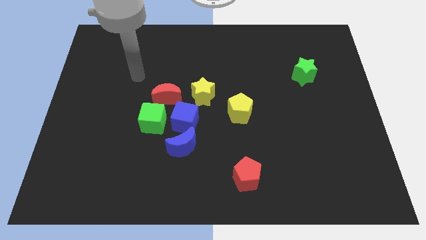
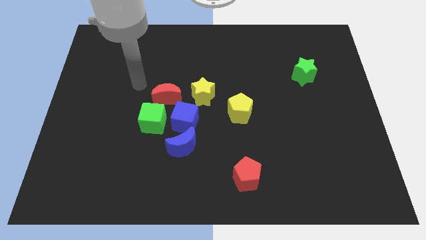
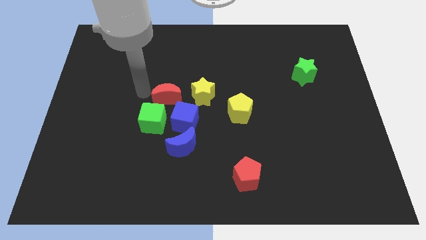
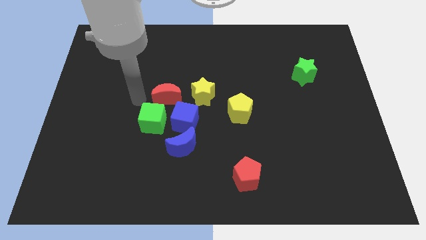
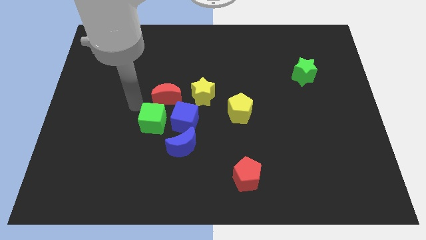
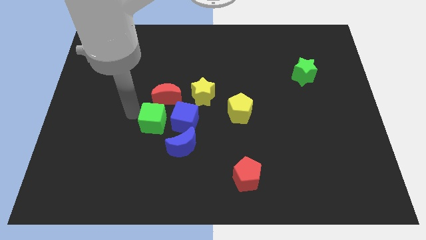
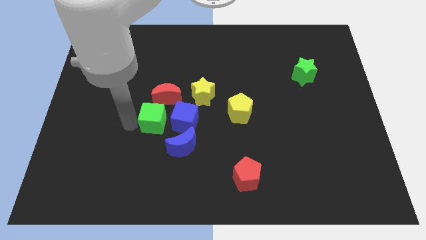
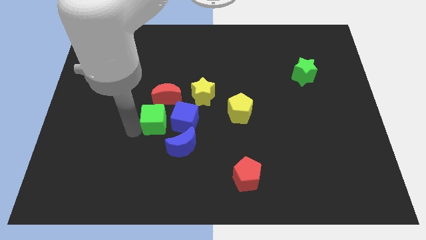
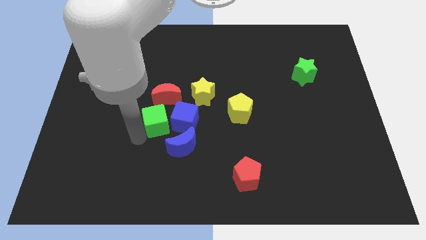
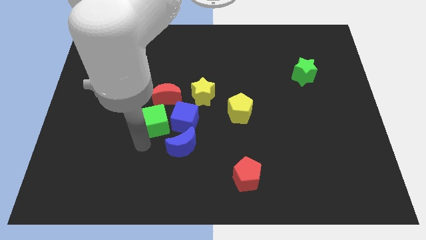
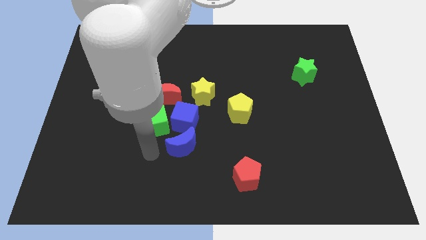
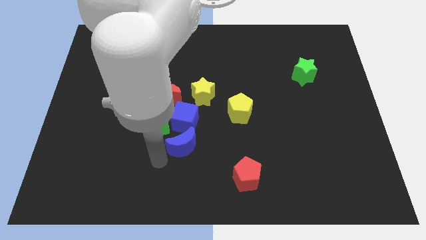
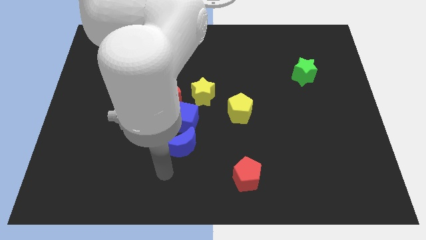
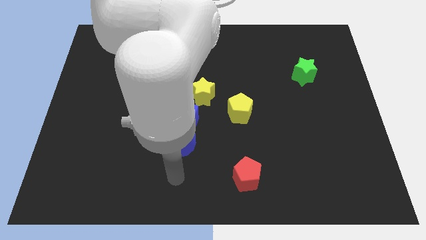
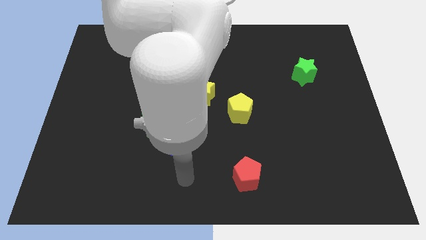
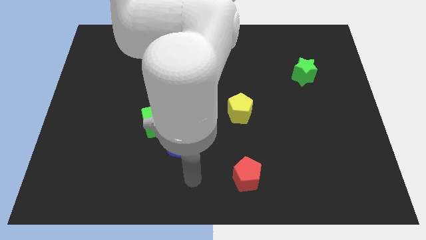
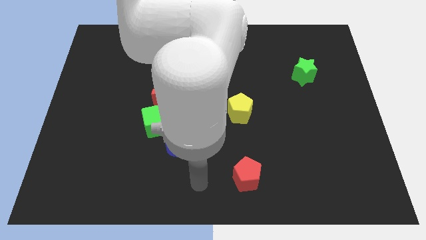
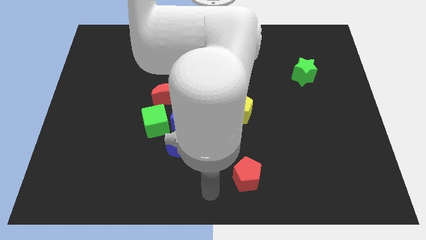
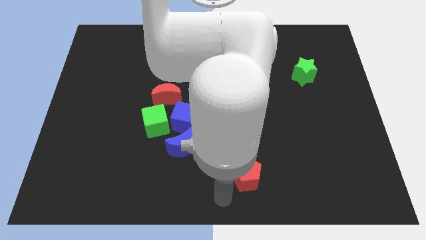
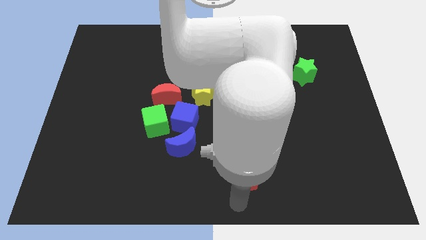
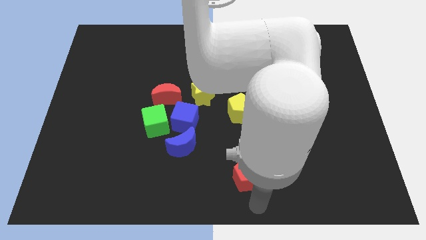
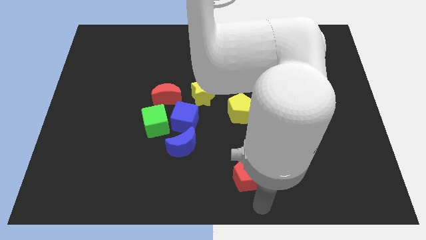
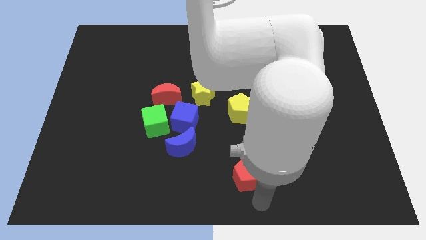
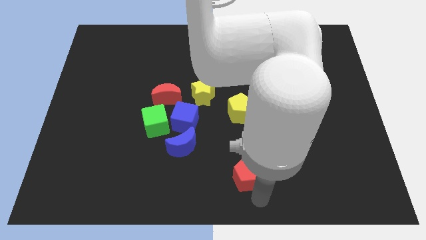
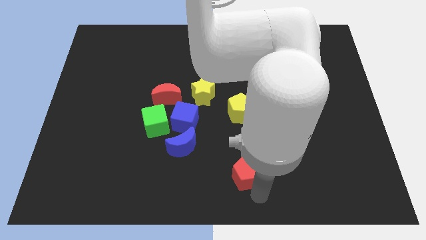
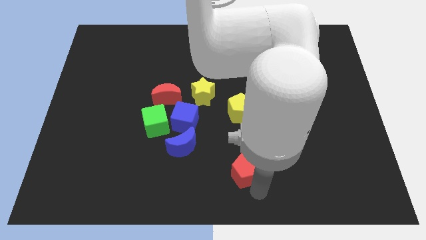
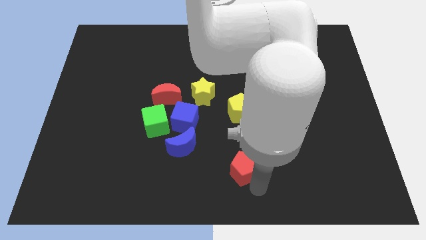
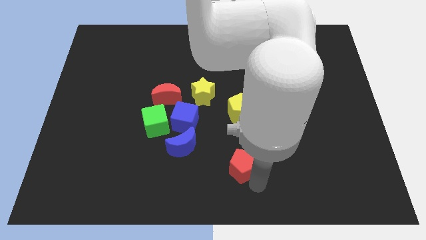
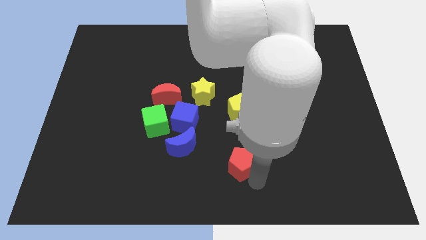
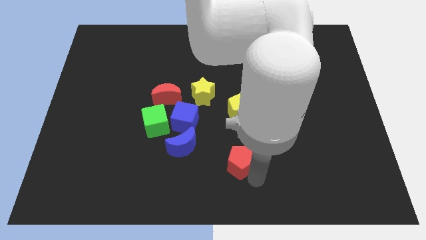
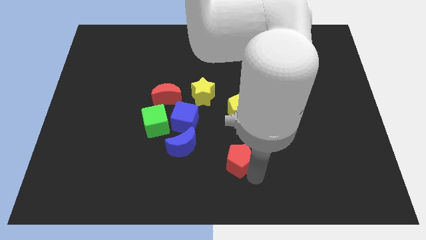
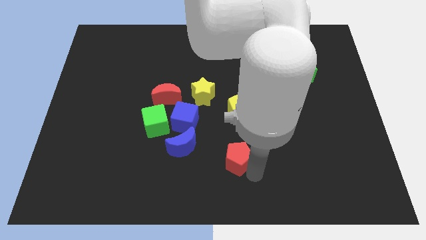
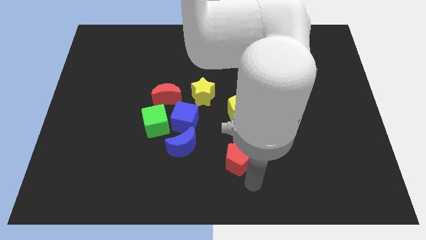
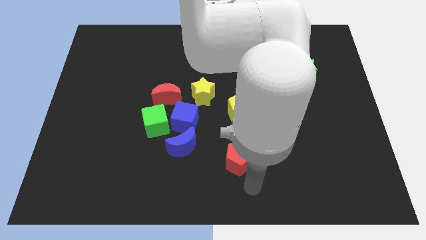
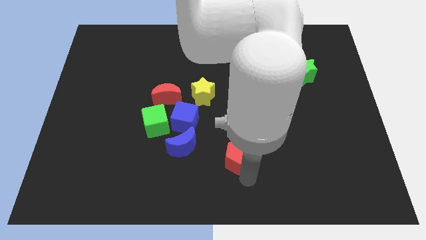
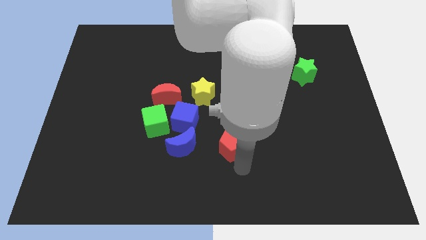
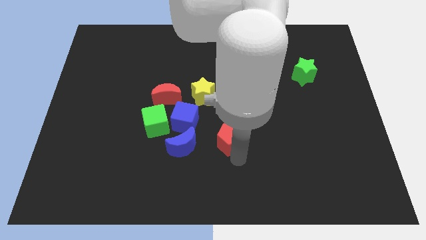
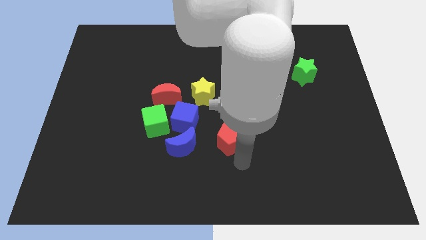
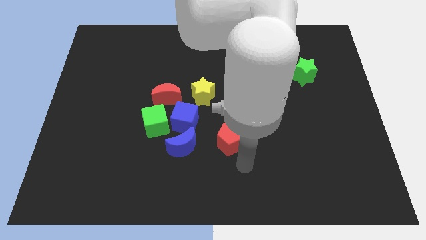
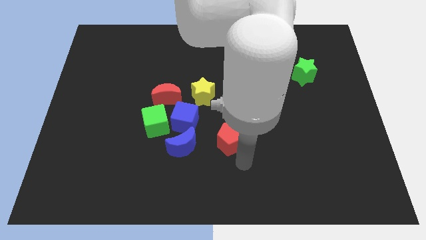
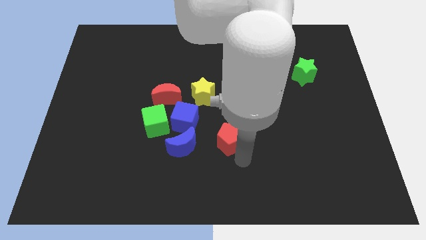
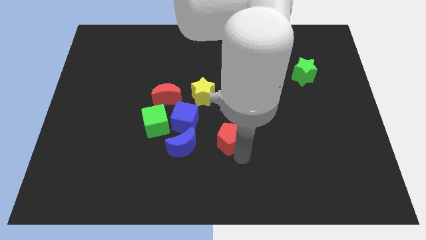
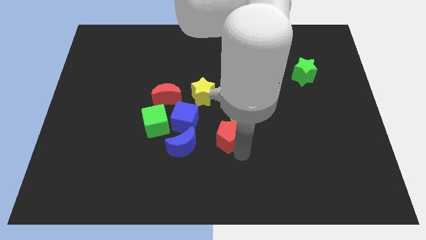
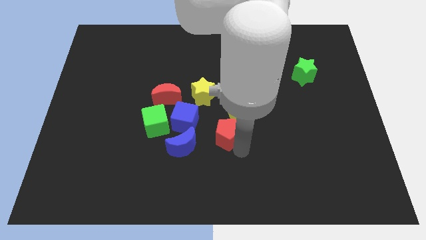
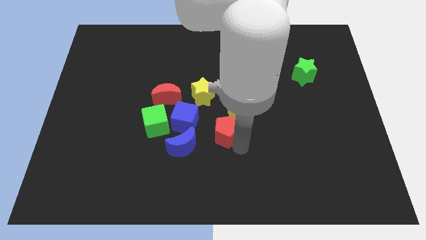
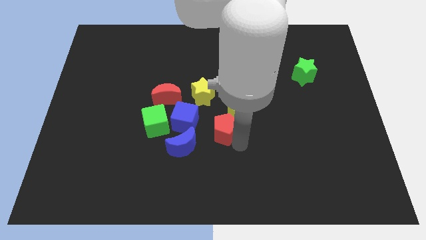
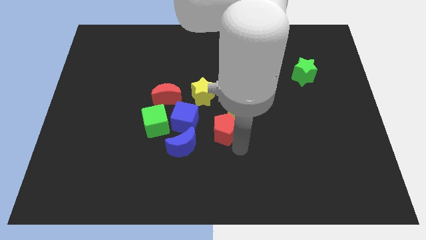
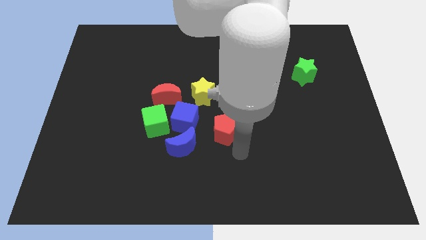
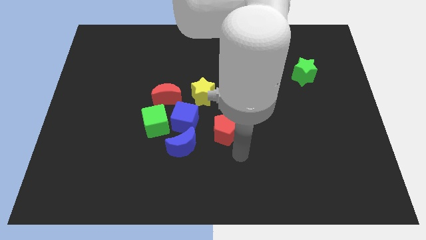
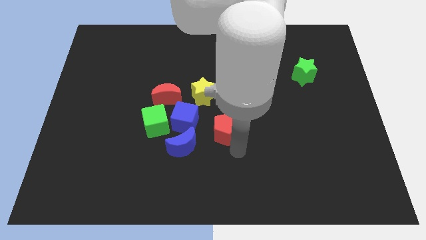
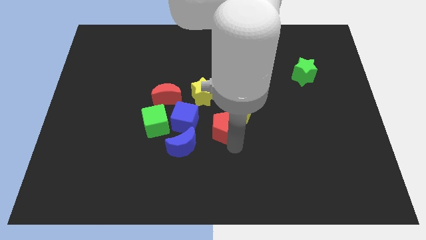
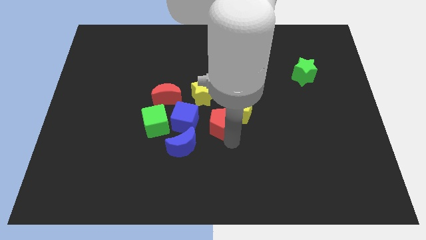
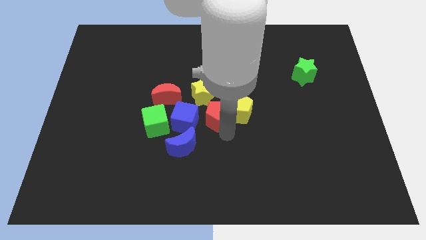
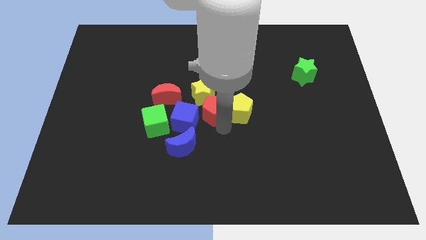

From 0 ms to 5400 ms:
slide the red pentagon close to the yellow star
